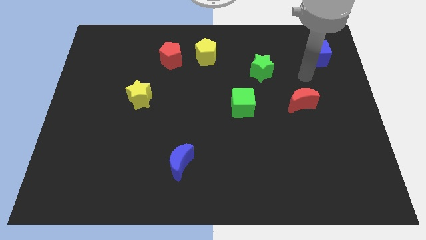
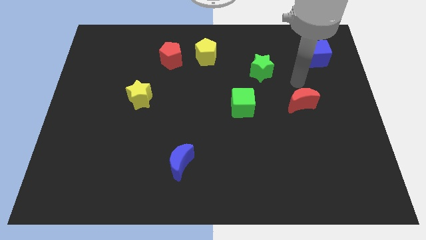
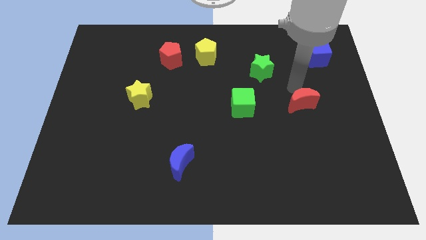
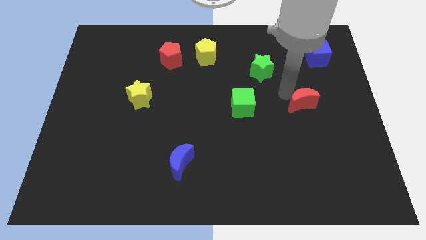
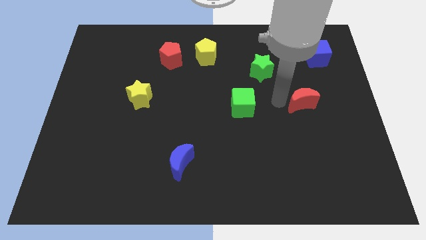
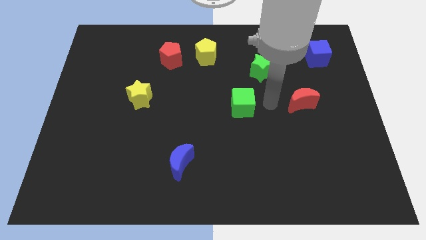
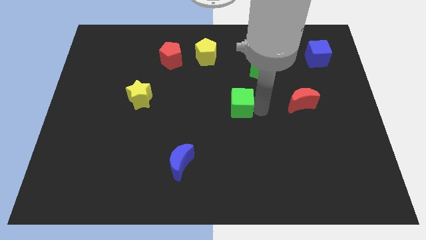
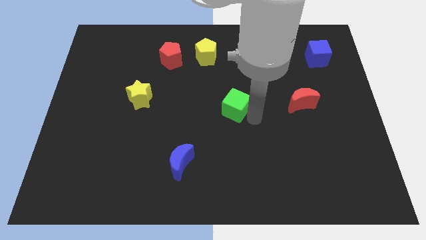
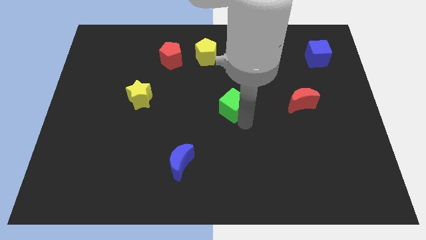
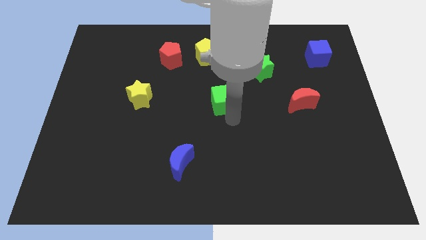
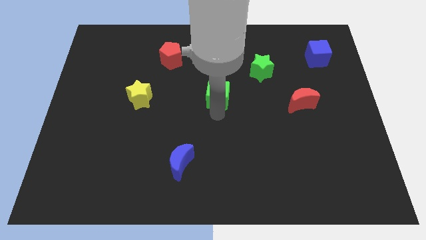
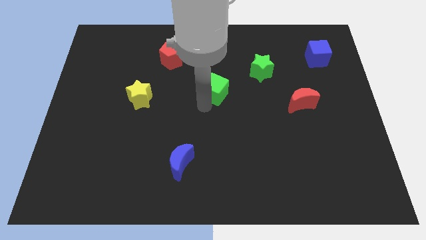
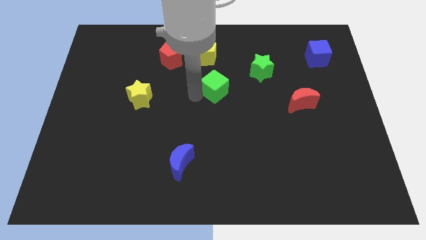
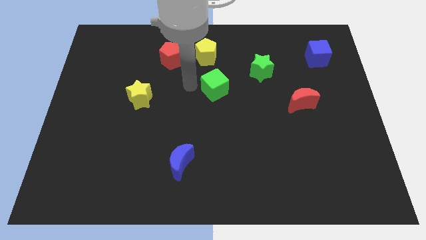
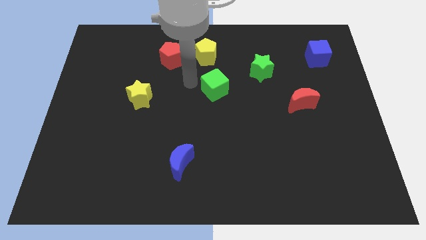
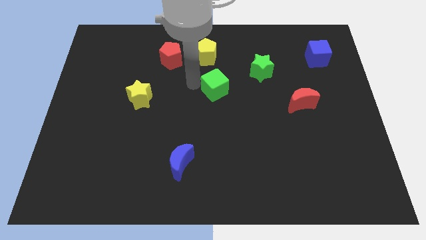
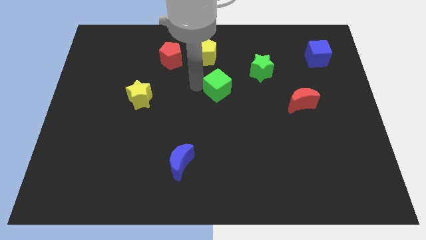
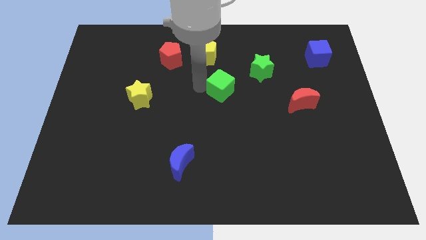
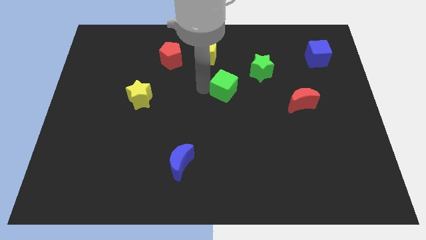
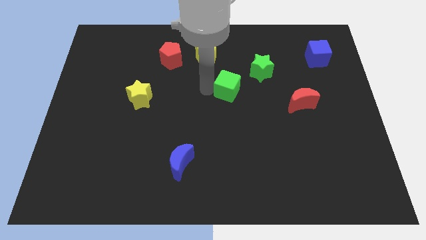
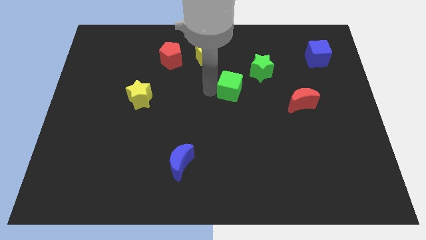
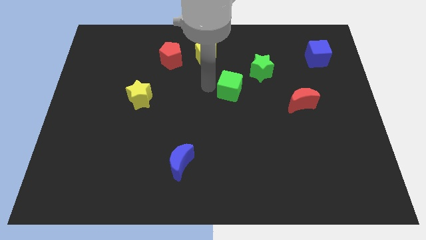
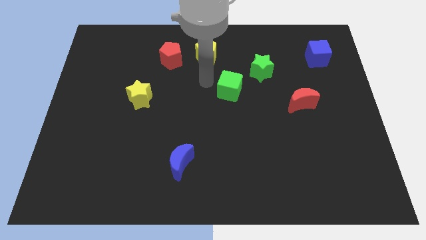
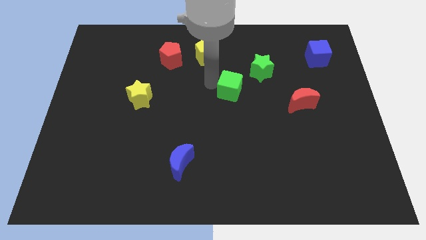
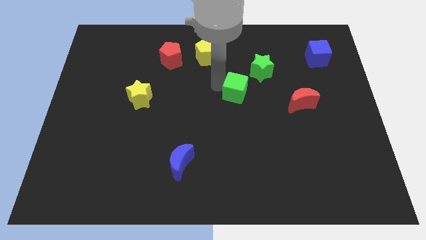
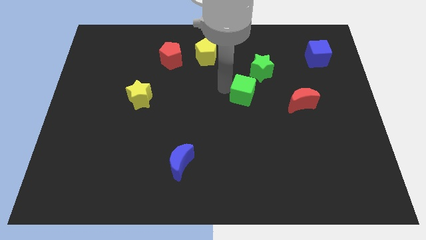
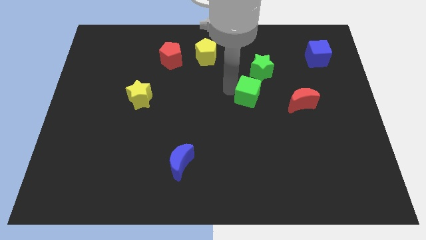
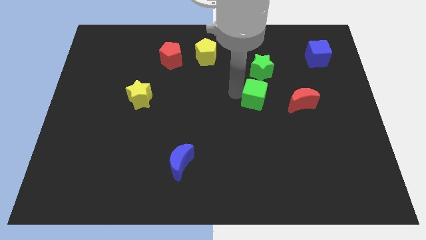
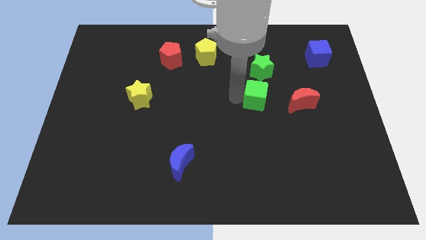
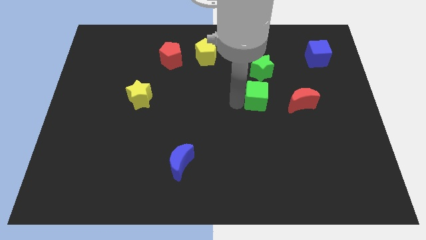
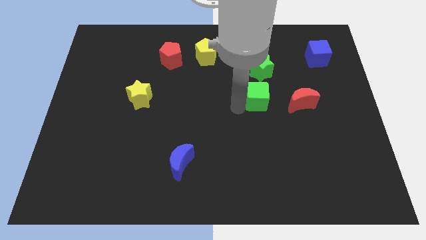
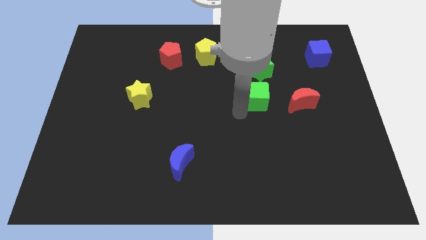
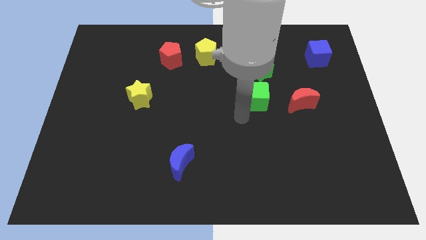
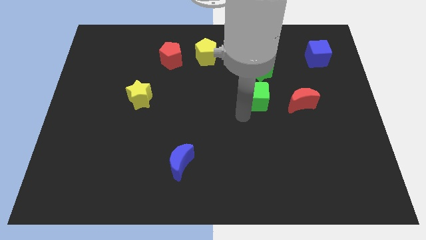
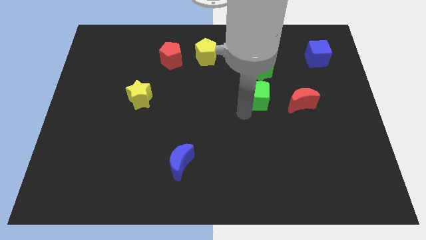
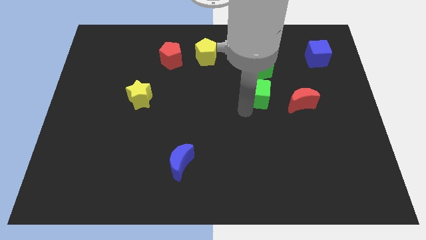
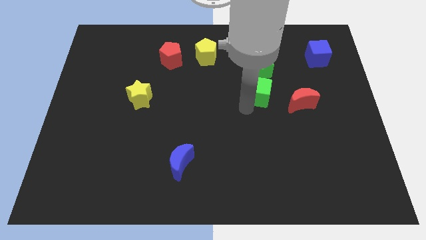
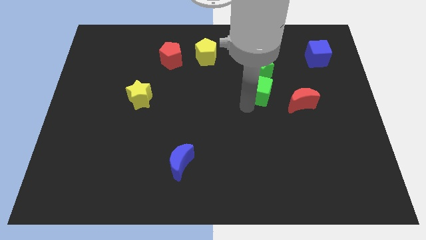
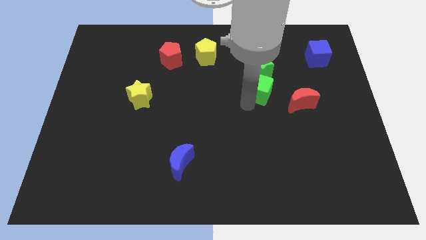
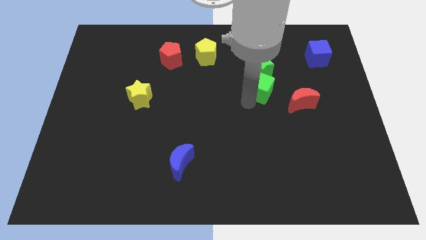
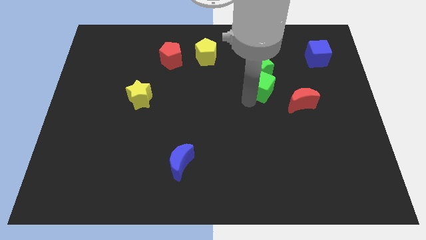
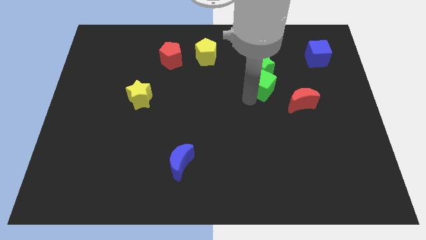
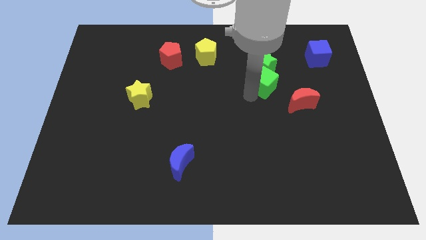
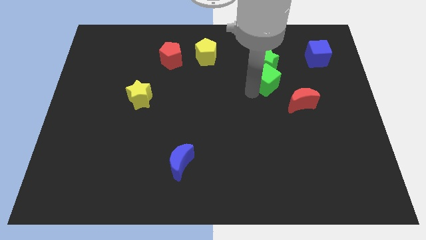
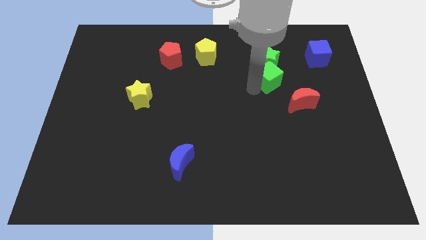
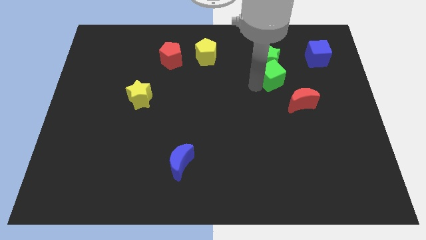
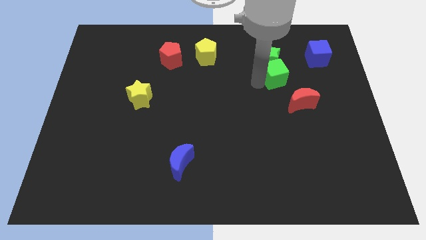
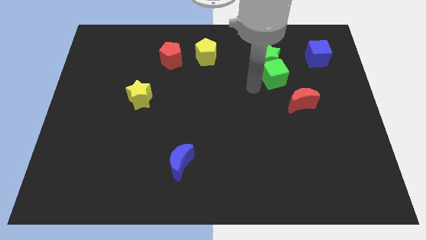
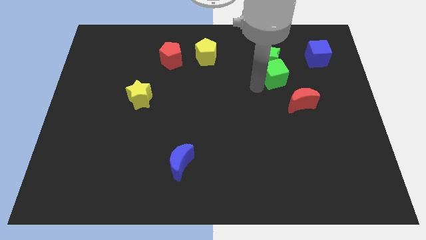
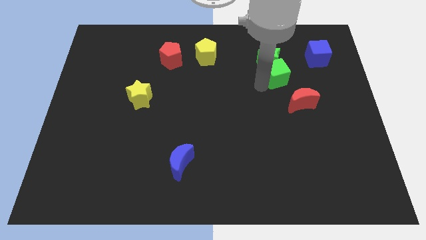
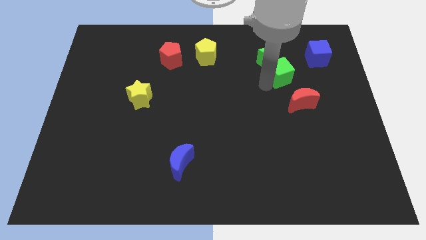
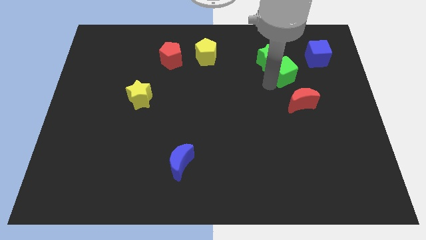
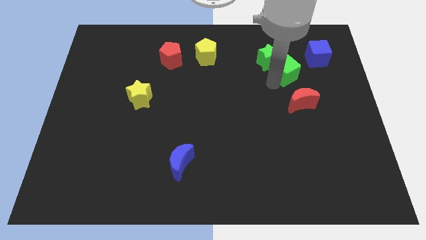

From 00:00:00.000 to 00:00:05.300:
push the green cube to the right of the green star

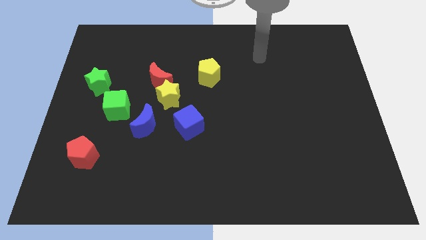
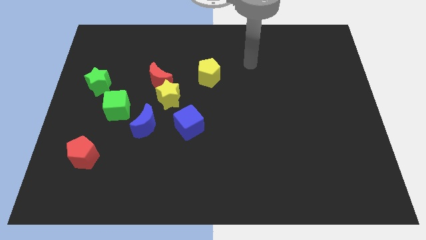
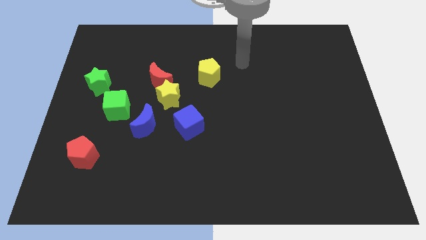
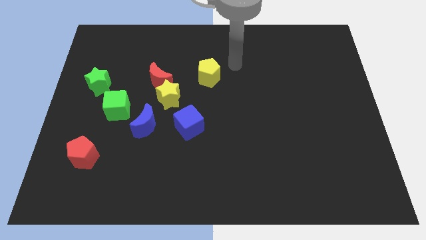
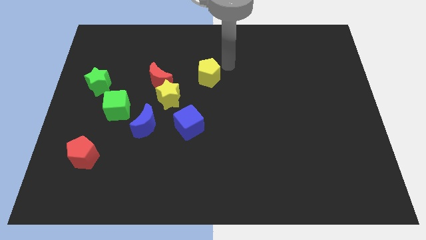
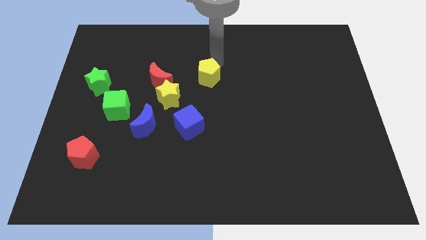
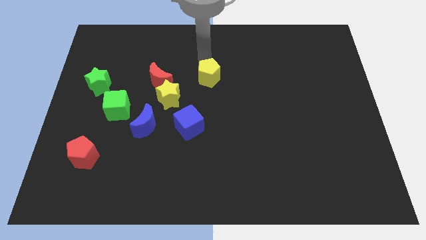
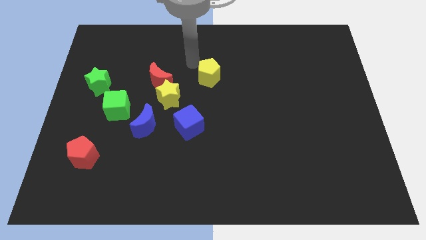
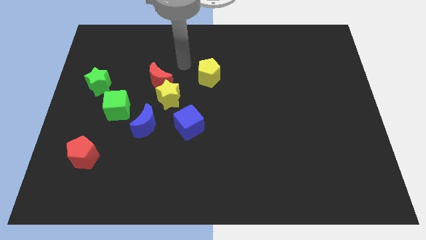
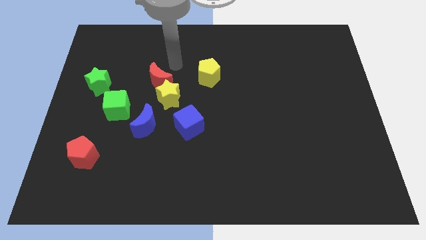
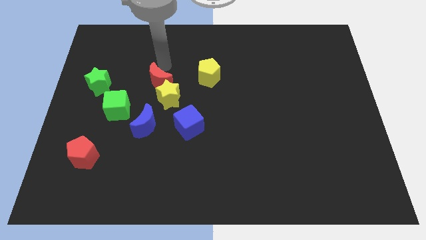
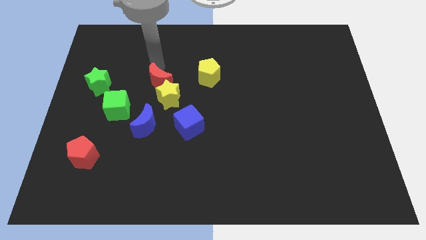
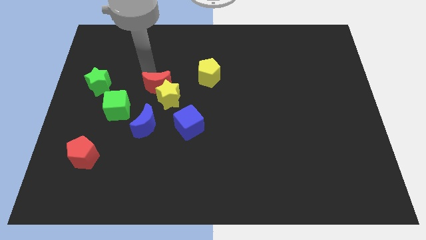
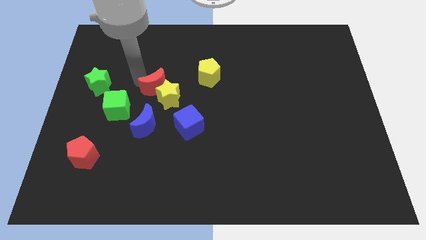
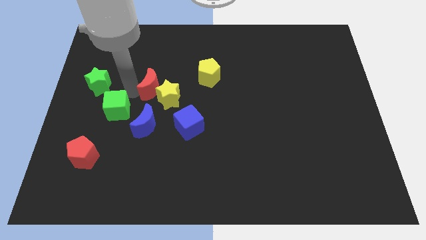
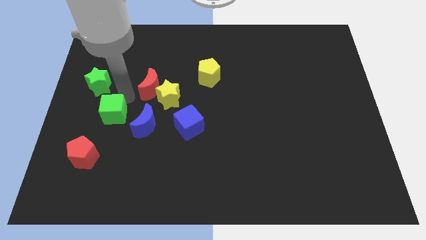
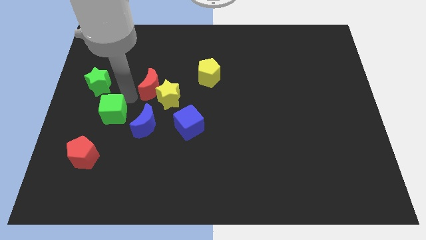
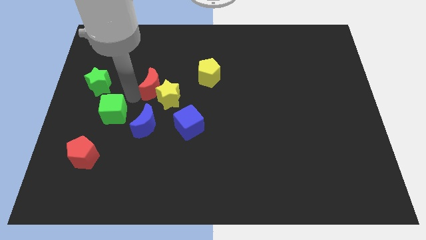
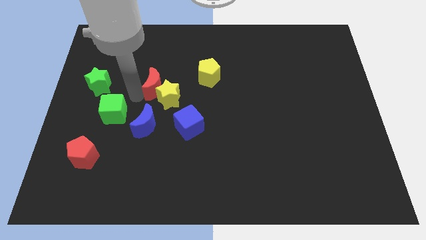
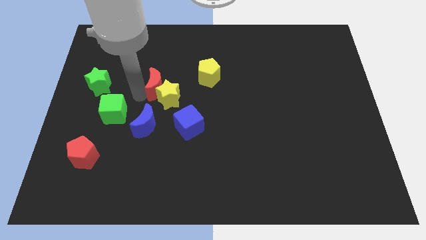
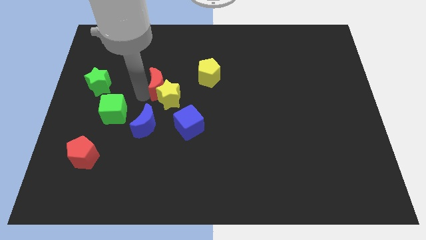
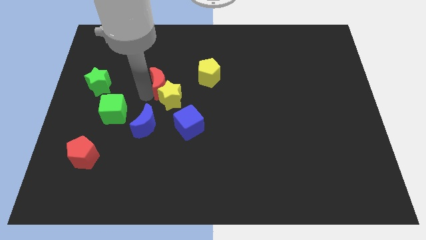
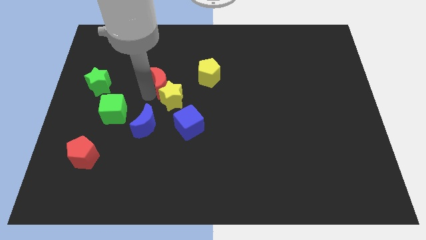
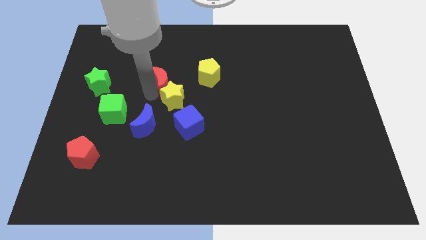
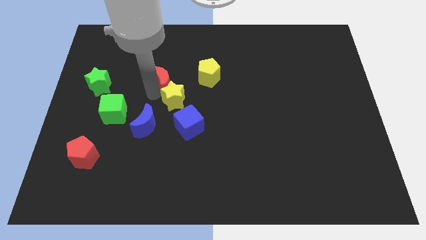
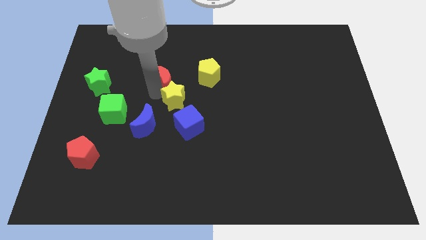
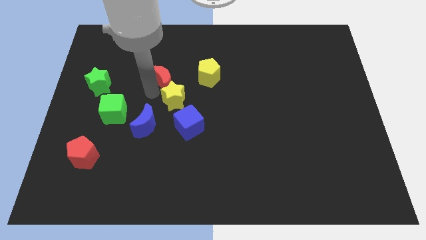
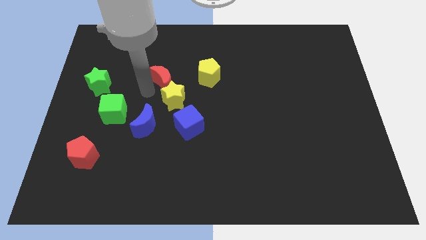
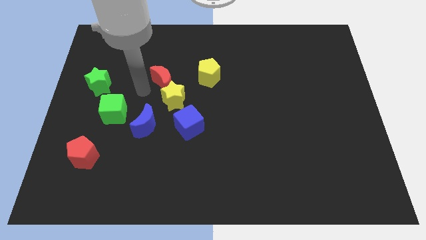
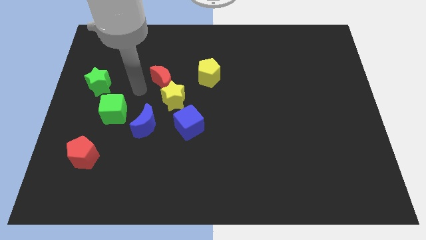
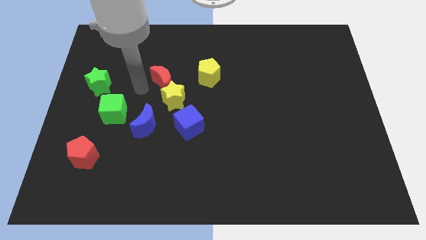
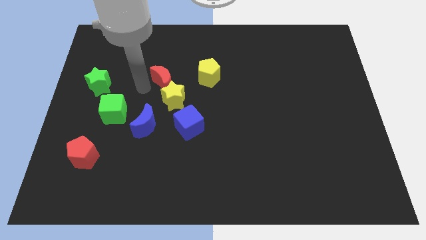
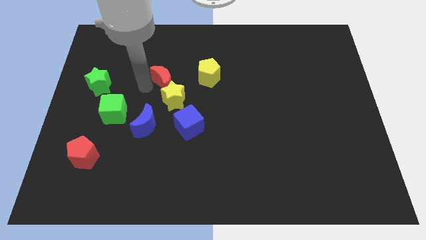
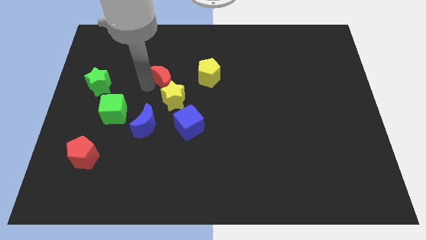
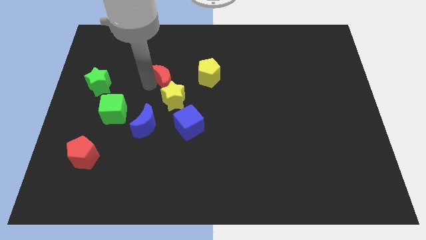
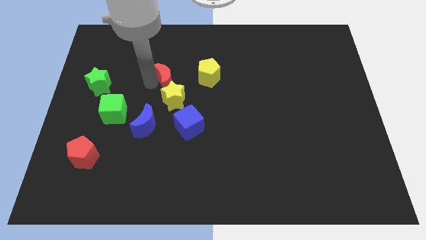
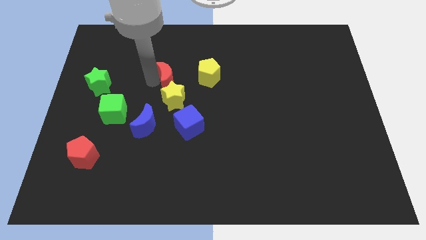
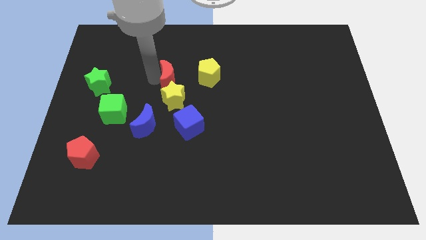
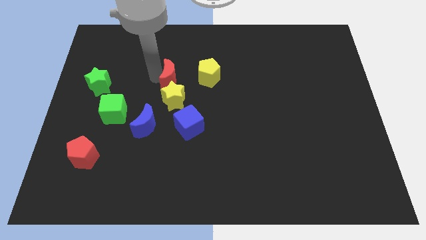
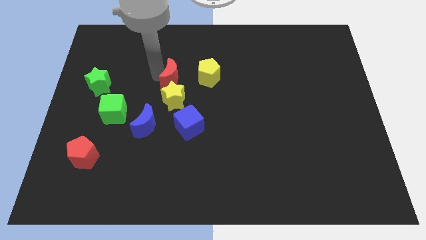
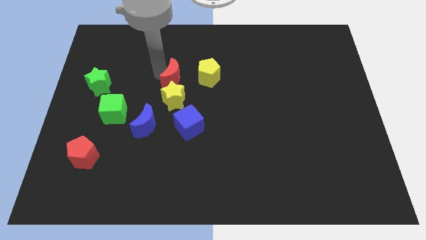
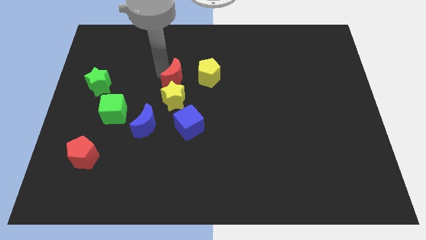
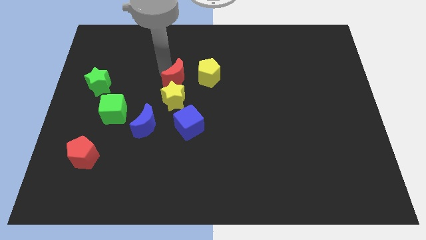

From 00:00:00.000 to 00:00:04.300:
slide the red moon above the blue cube
